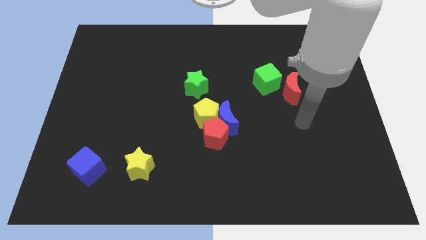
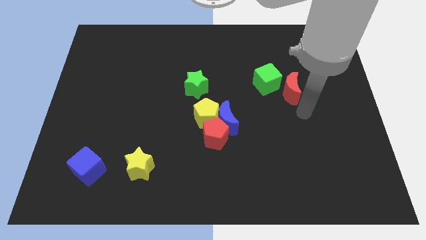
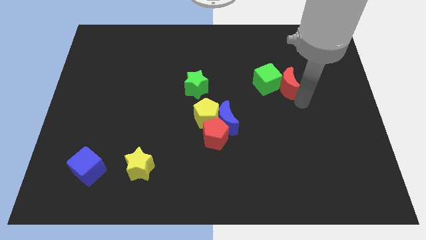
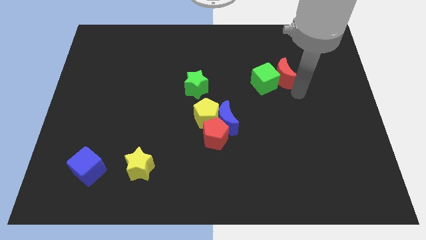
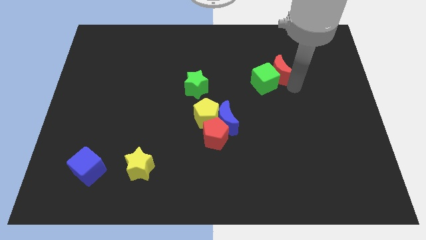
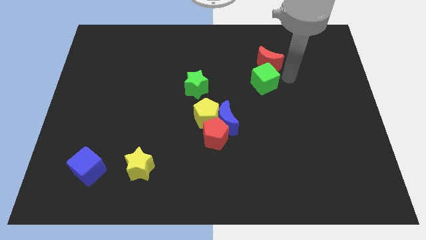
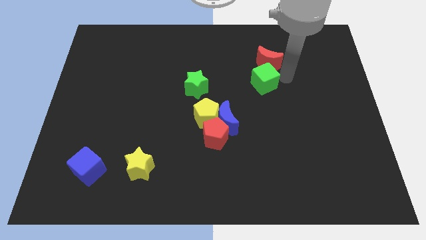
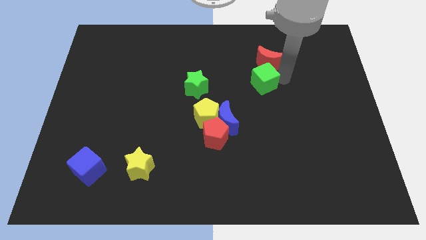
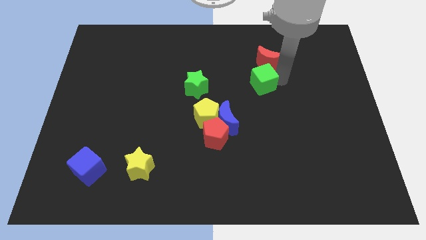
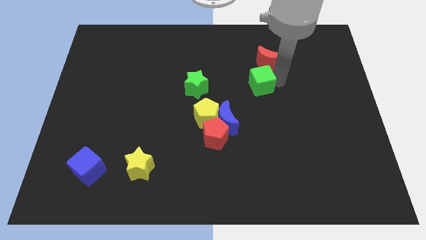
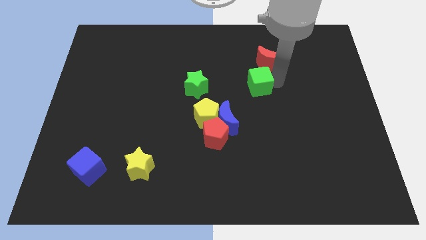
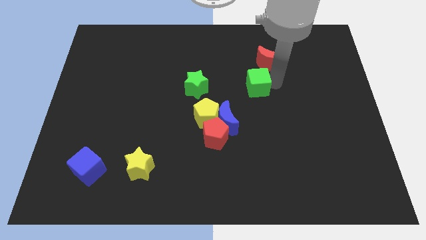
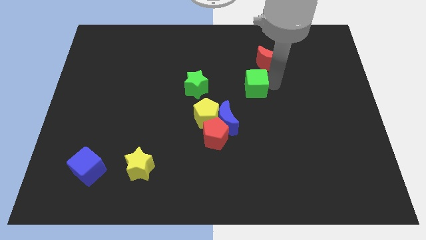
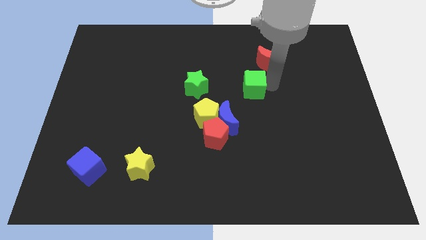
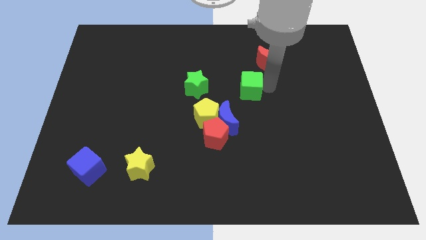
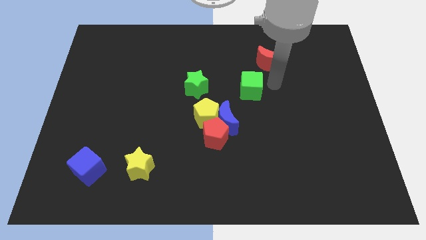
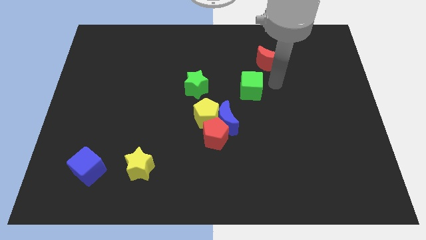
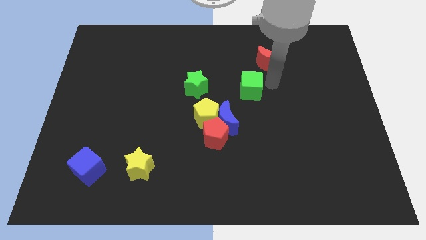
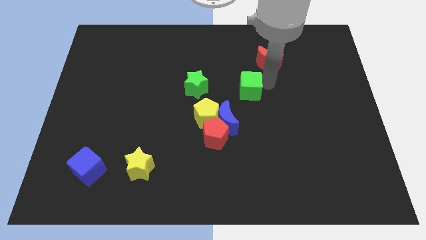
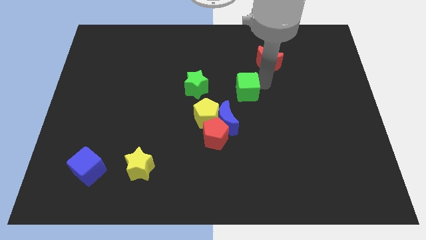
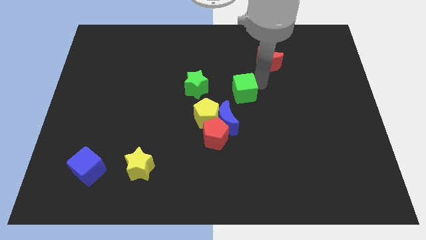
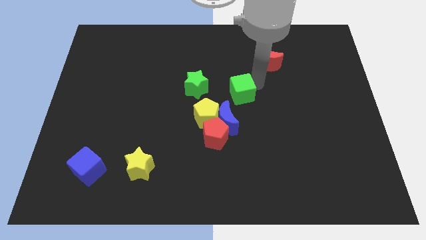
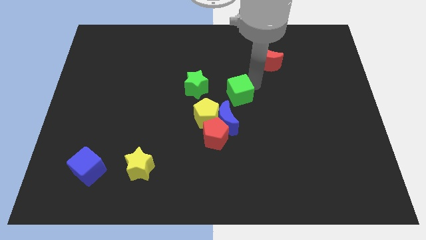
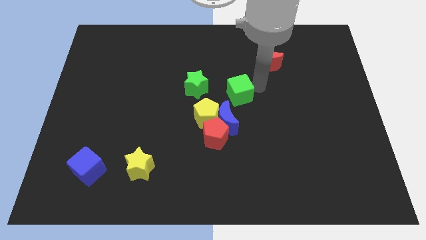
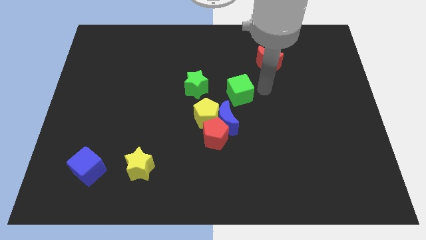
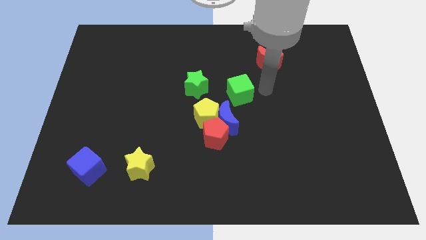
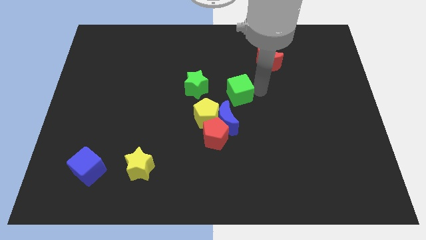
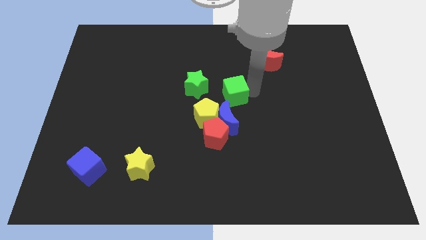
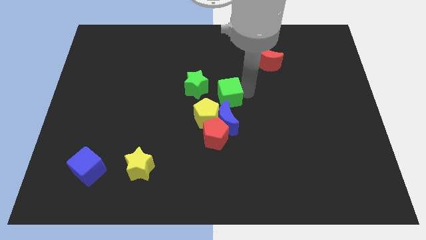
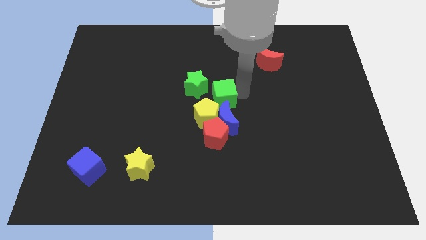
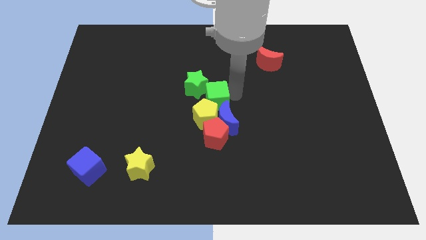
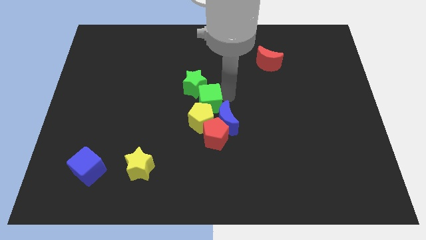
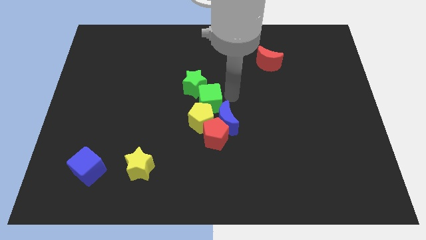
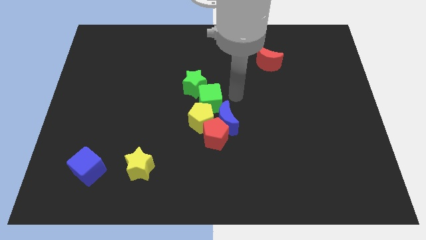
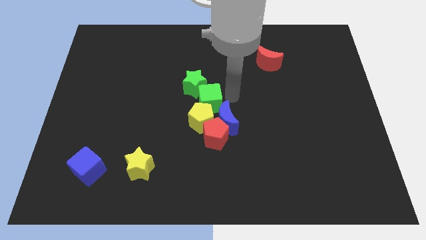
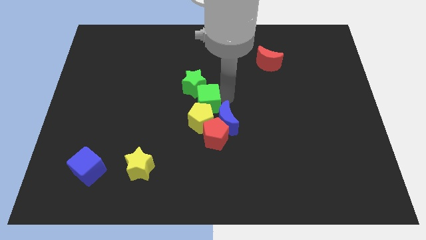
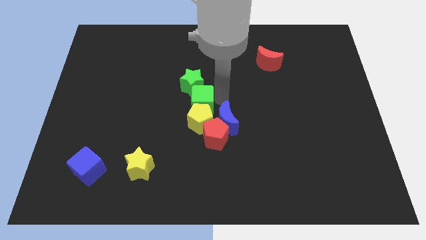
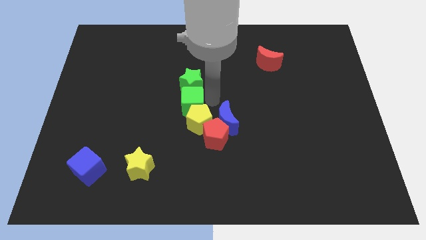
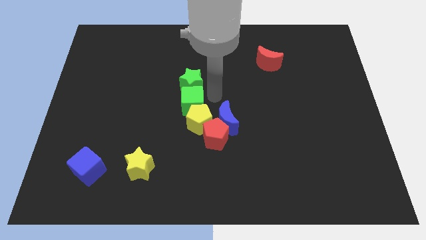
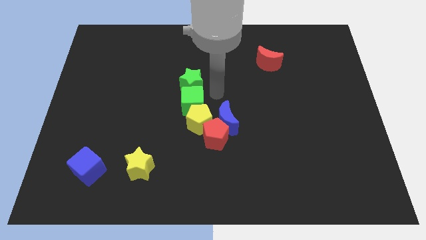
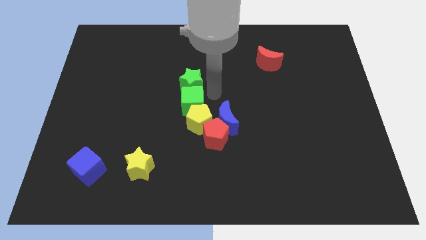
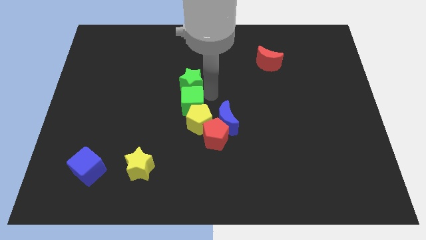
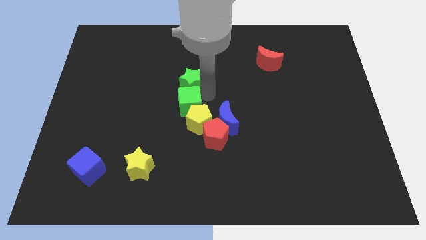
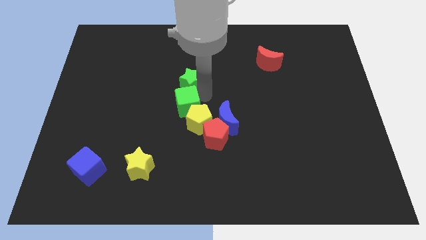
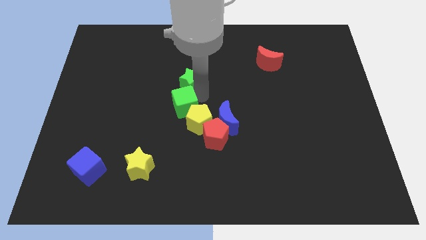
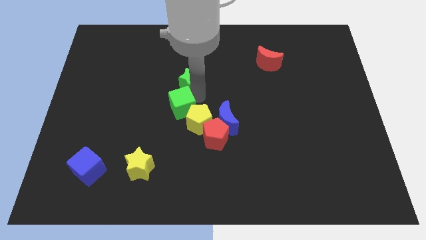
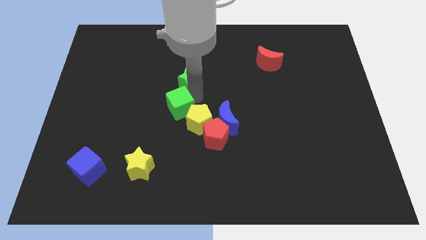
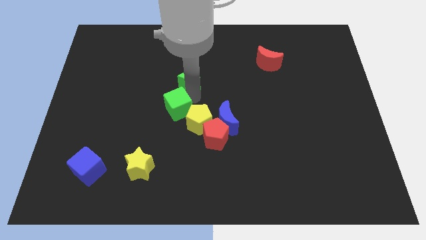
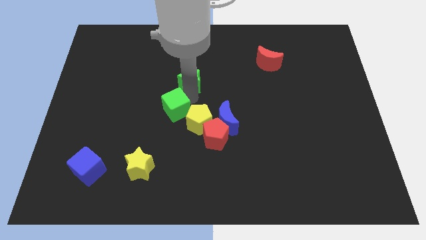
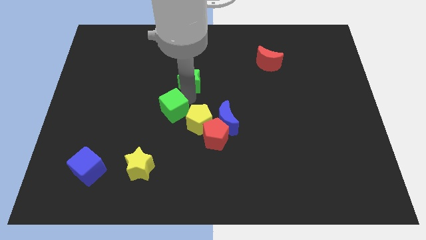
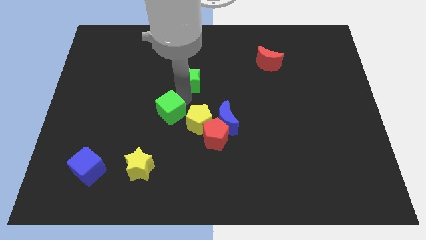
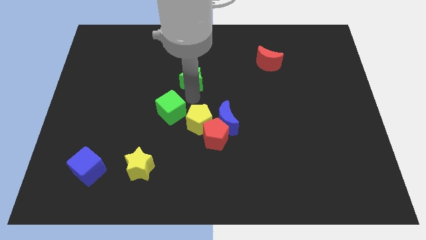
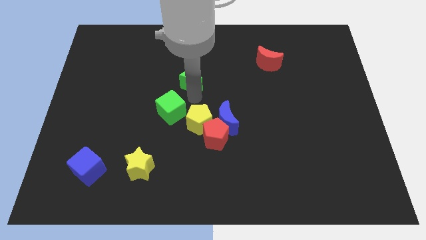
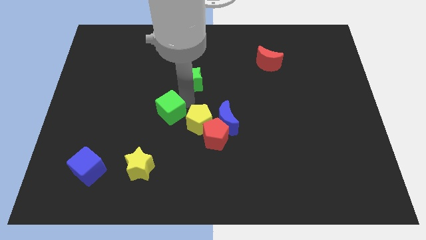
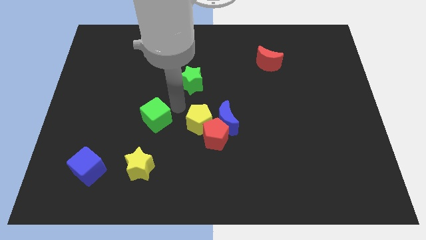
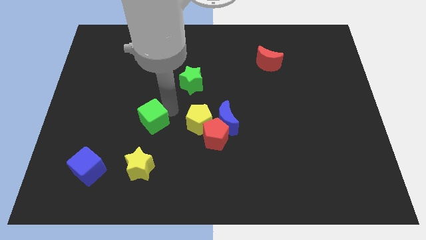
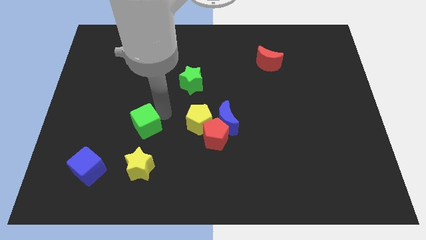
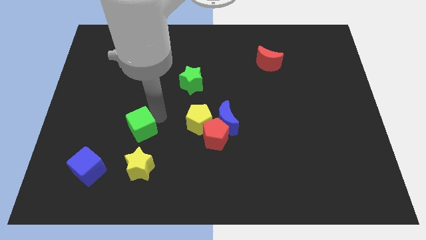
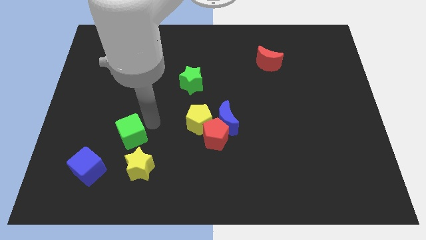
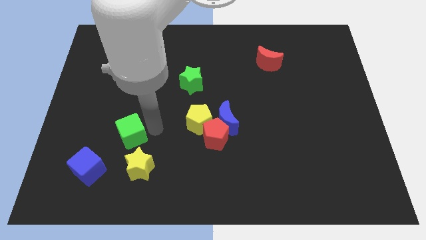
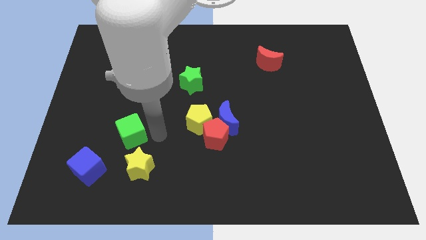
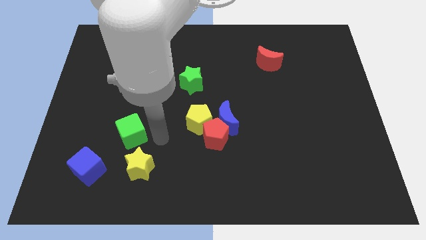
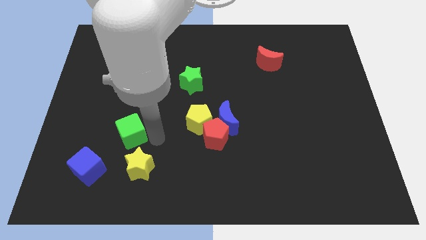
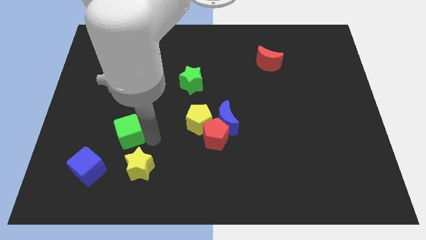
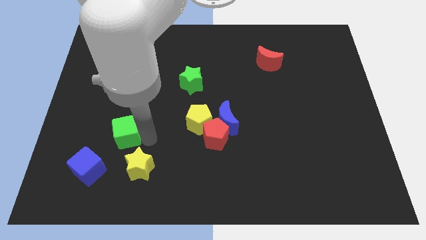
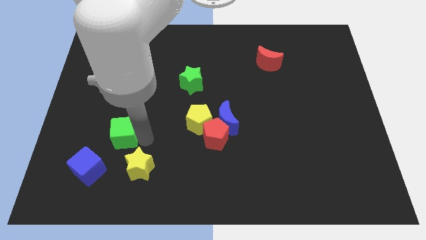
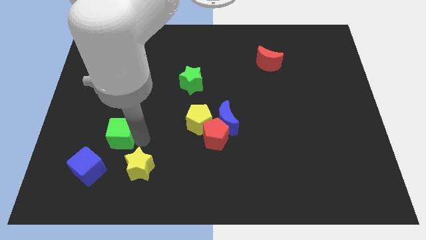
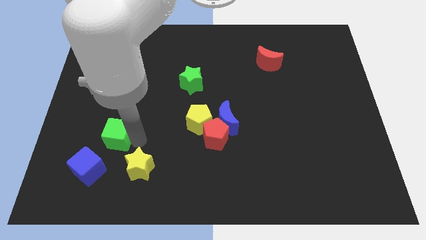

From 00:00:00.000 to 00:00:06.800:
push the green cube to the top of the blue cube

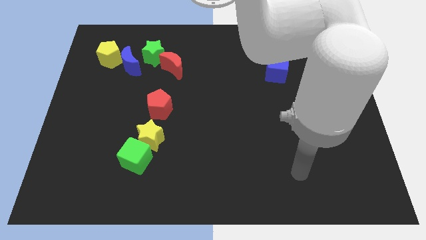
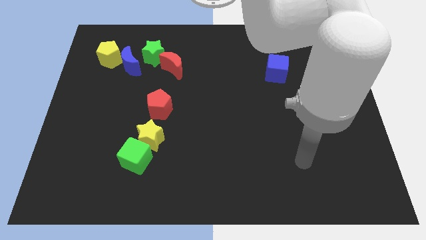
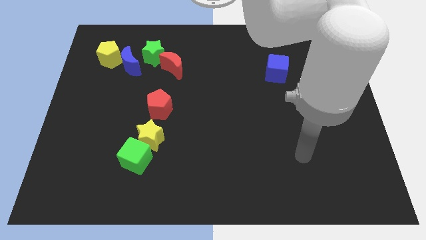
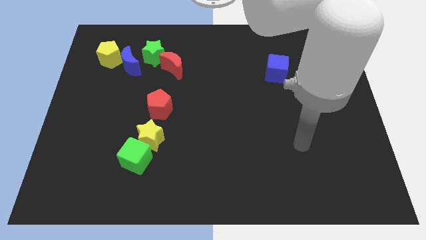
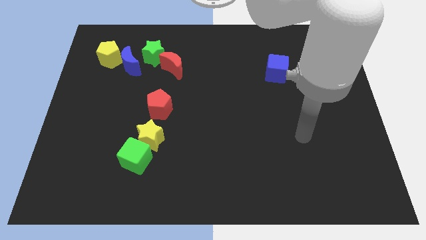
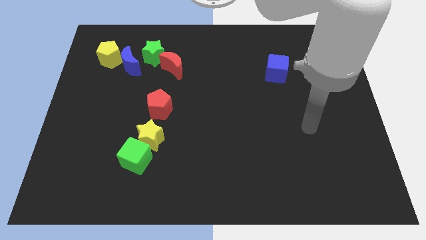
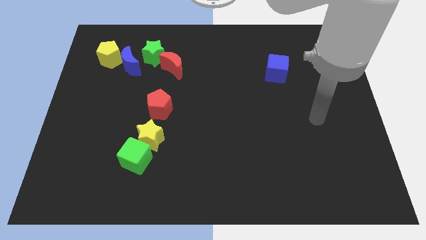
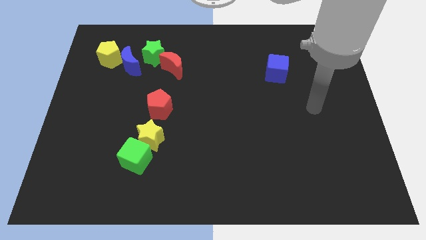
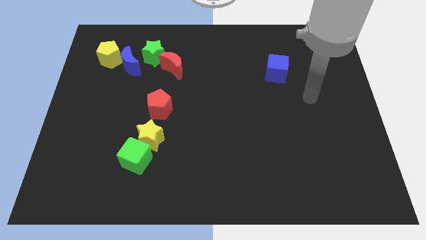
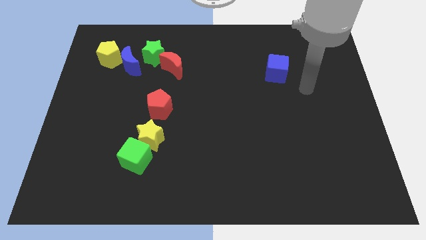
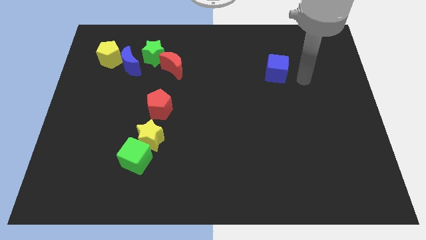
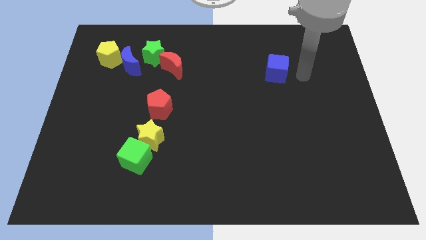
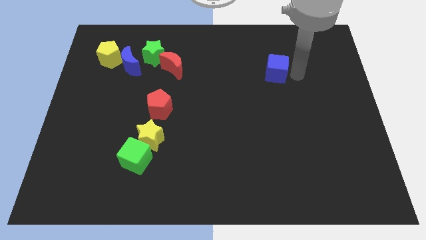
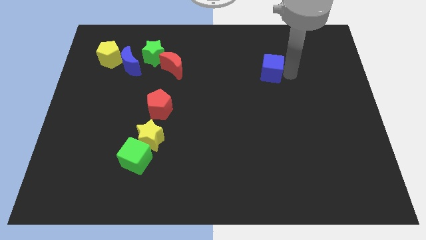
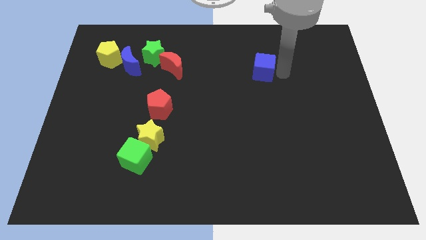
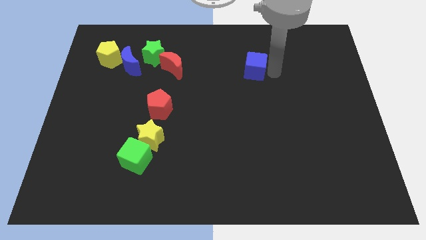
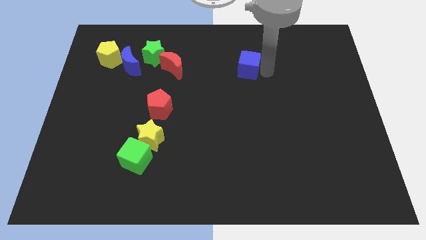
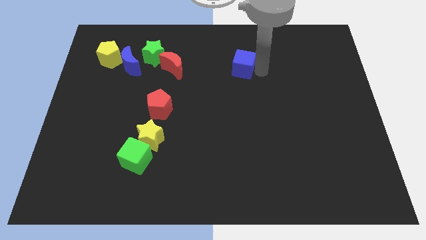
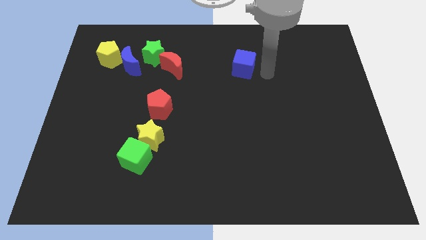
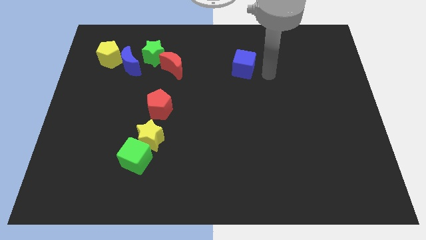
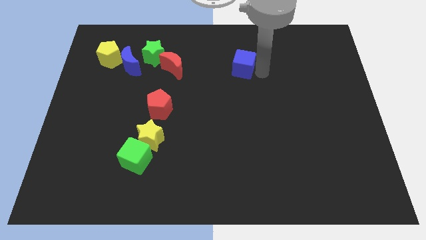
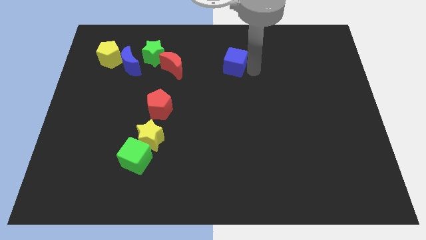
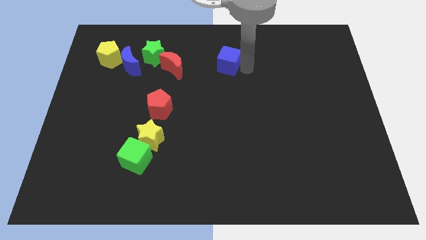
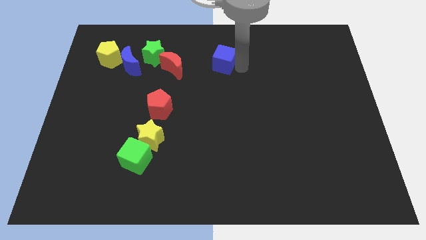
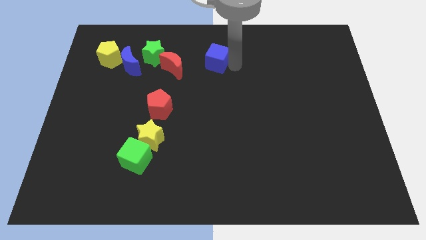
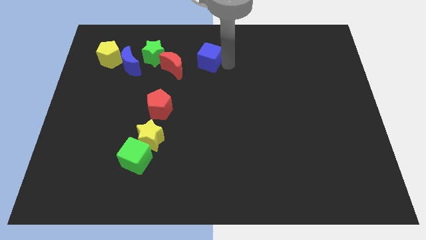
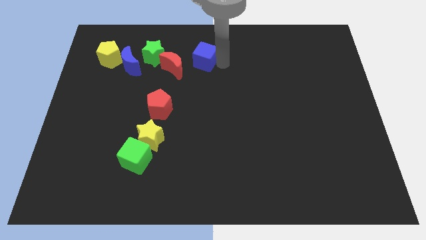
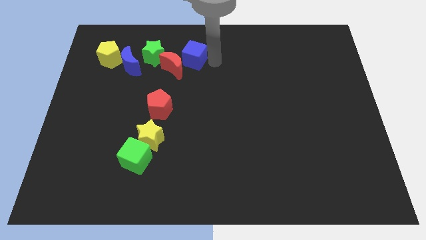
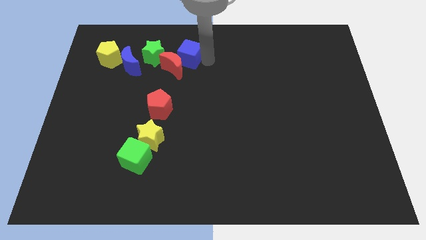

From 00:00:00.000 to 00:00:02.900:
slide the blue cube to the right of the blue moon
